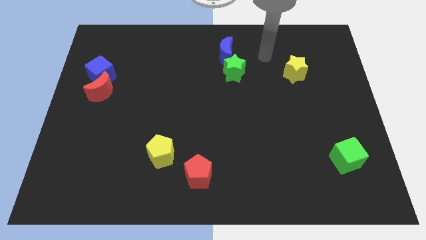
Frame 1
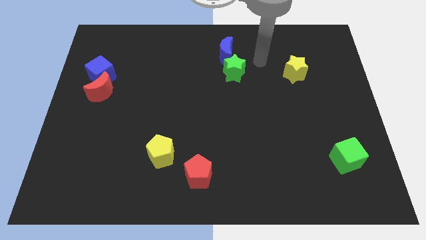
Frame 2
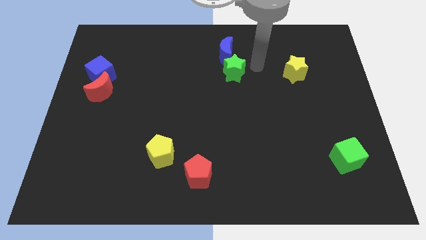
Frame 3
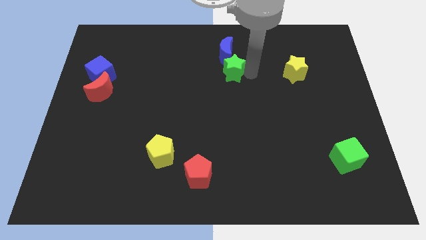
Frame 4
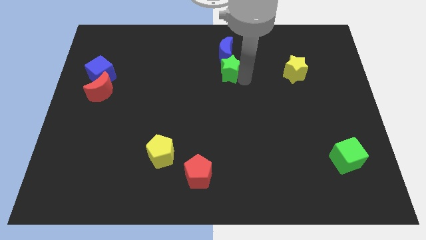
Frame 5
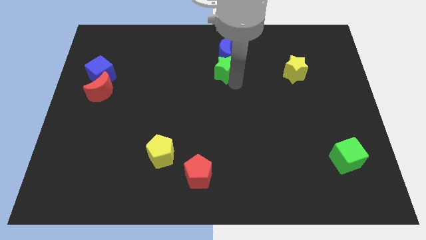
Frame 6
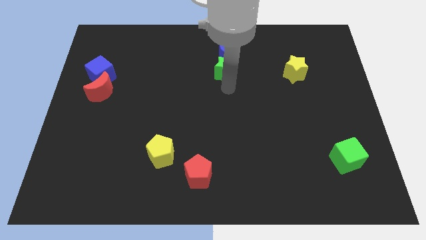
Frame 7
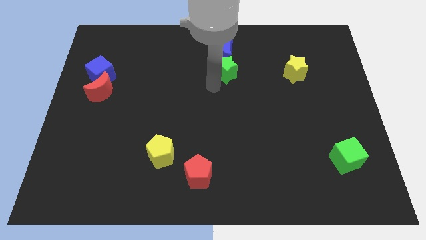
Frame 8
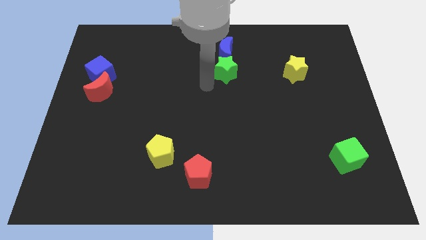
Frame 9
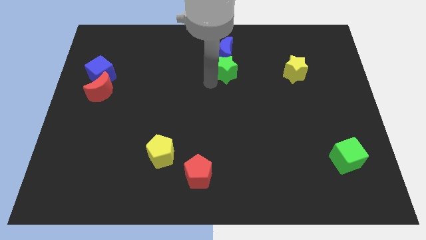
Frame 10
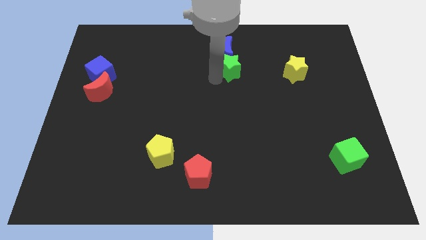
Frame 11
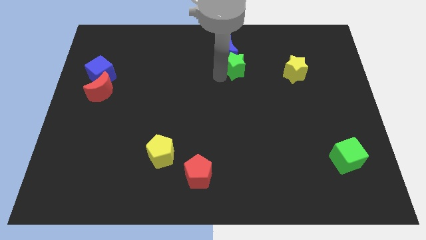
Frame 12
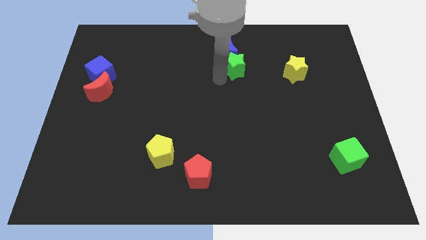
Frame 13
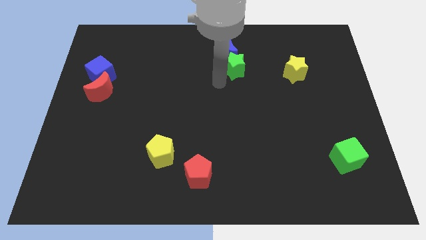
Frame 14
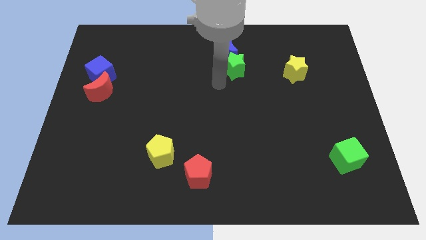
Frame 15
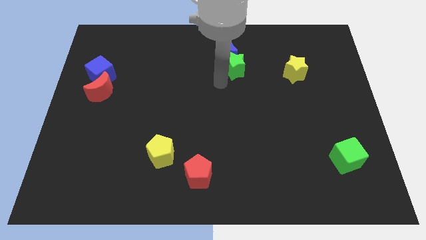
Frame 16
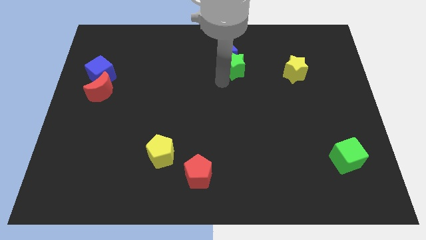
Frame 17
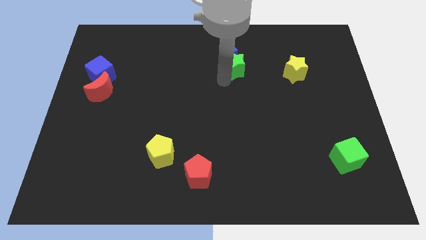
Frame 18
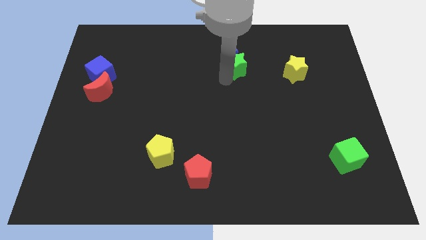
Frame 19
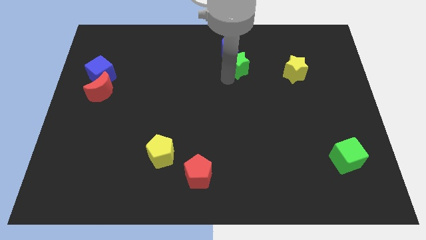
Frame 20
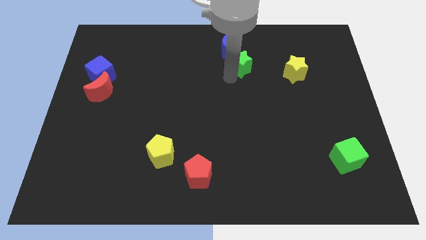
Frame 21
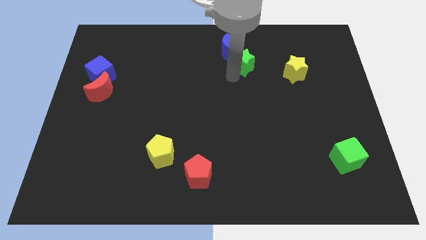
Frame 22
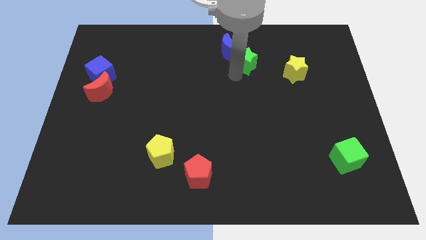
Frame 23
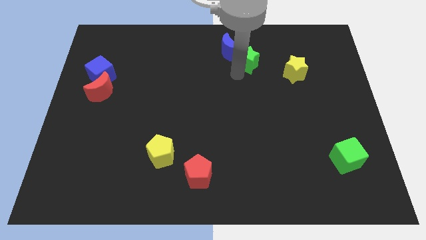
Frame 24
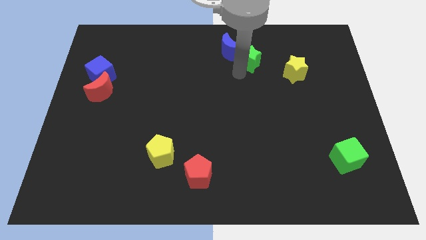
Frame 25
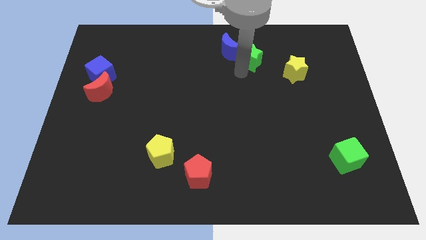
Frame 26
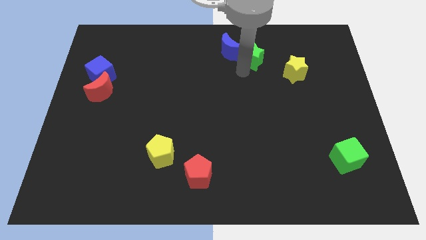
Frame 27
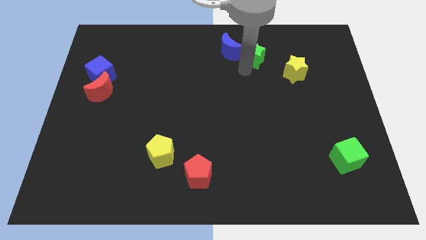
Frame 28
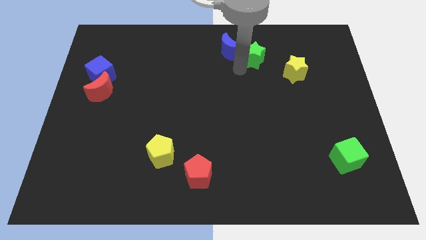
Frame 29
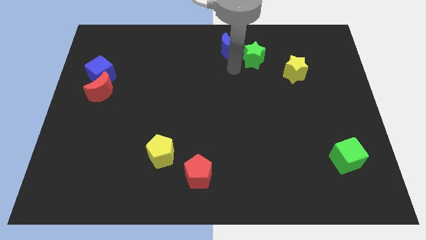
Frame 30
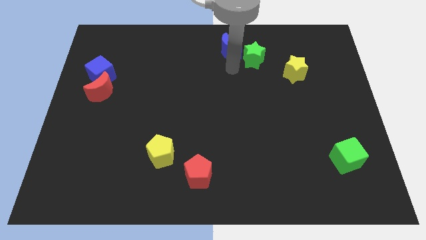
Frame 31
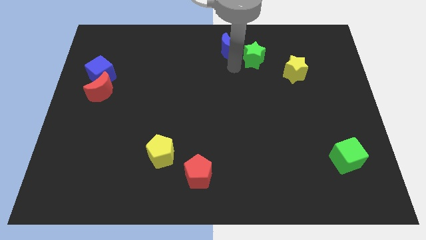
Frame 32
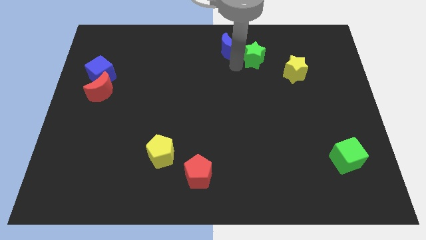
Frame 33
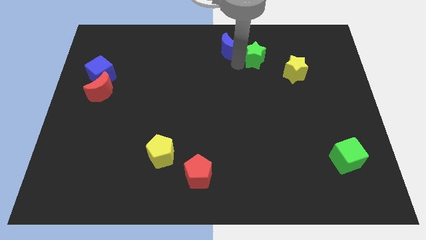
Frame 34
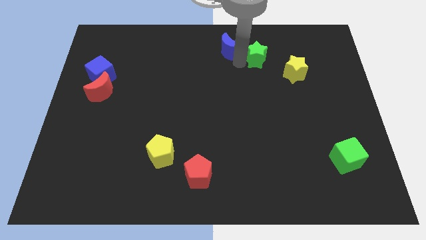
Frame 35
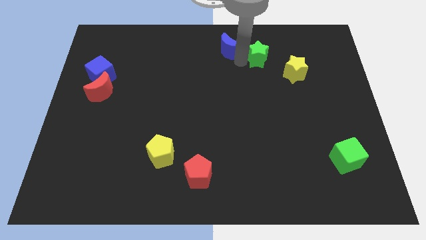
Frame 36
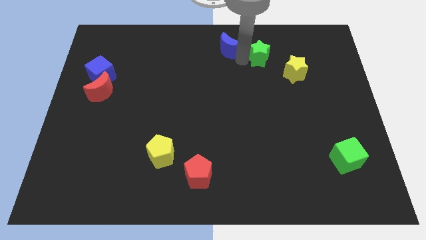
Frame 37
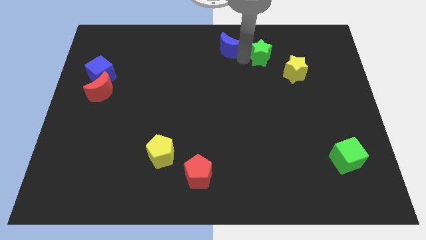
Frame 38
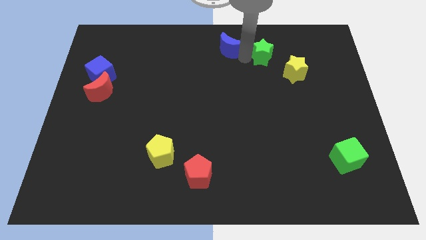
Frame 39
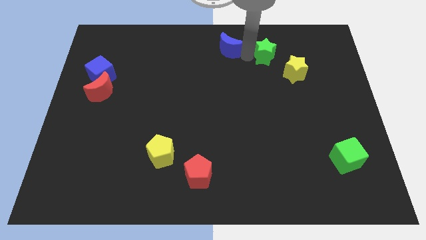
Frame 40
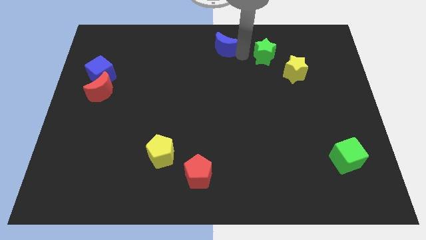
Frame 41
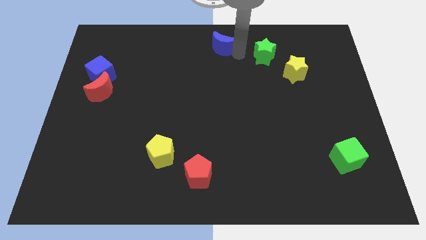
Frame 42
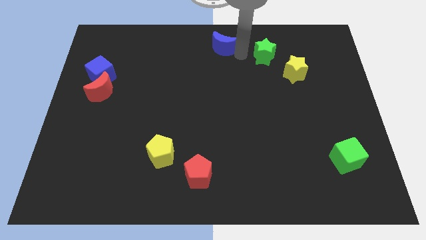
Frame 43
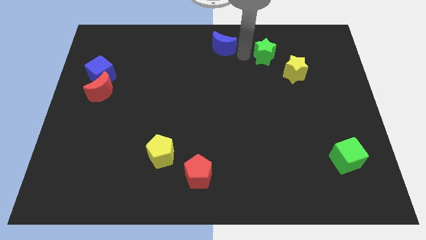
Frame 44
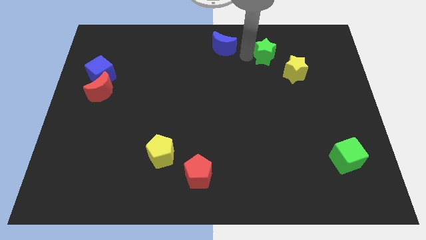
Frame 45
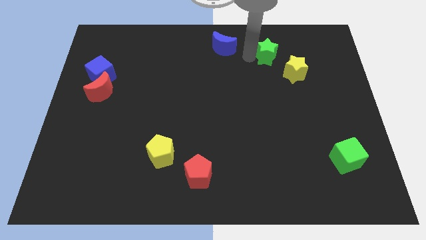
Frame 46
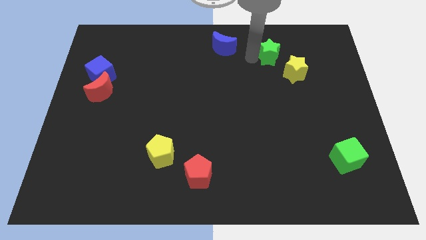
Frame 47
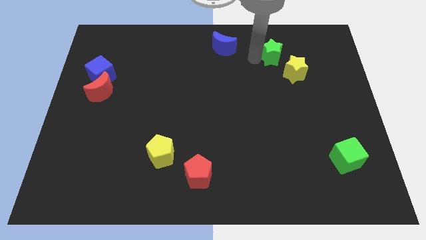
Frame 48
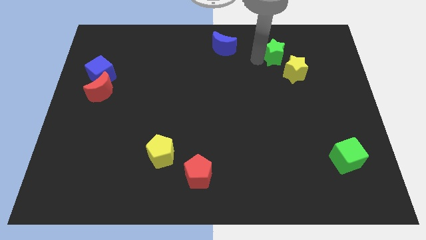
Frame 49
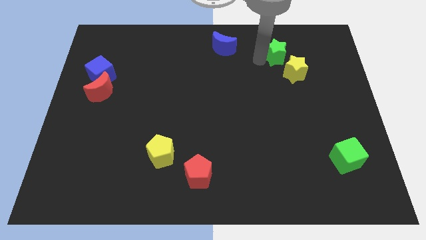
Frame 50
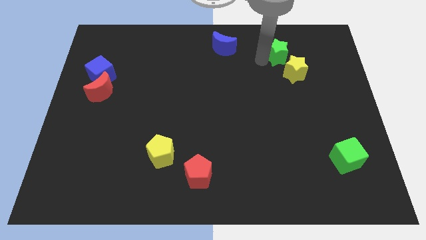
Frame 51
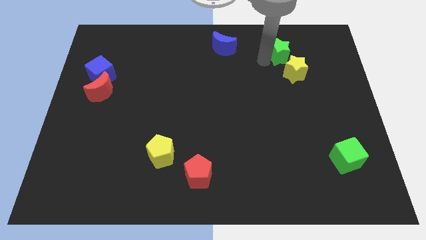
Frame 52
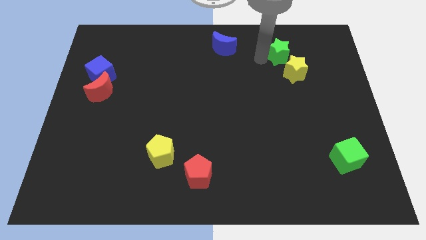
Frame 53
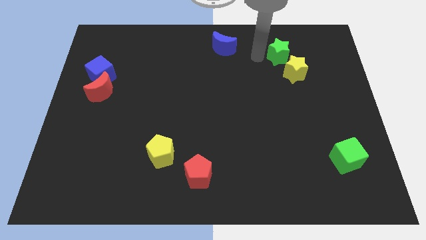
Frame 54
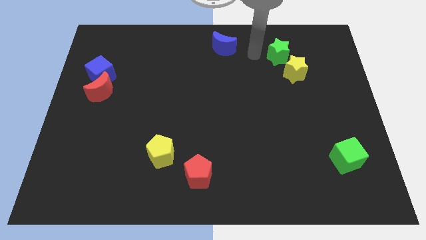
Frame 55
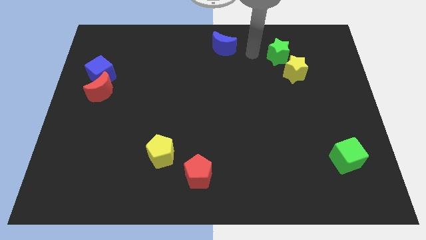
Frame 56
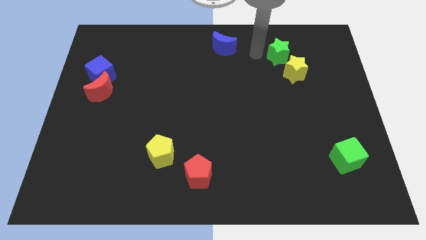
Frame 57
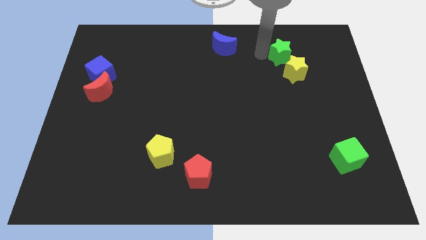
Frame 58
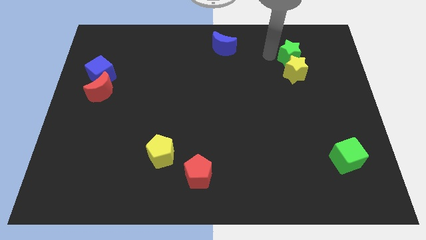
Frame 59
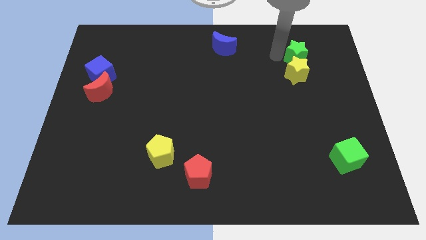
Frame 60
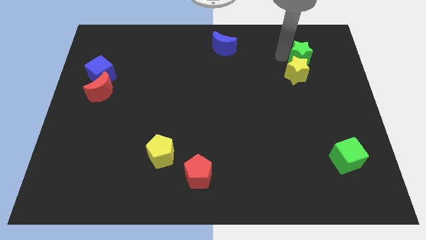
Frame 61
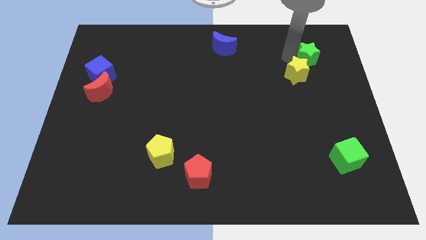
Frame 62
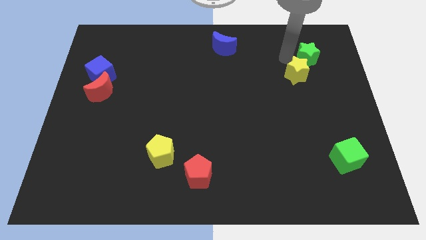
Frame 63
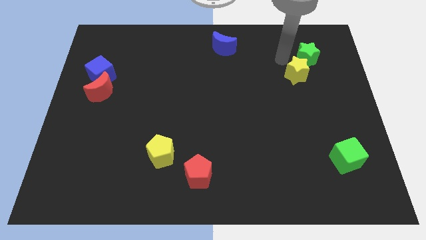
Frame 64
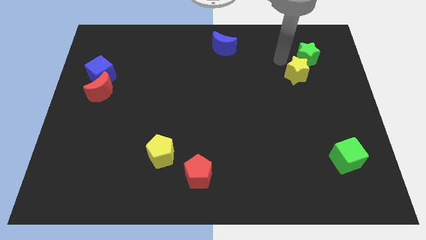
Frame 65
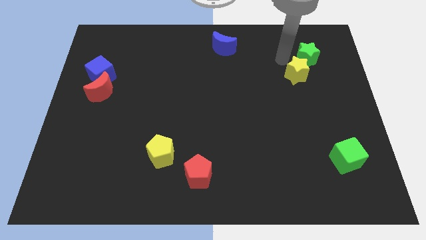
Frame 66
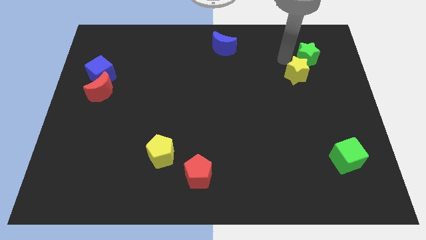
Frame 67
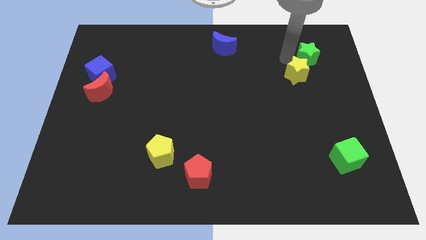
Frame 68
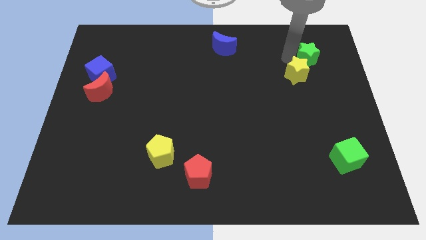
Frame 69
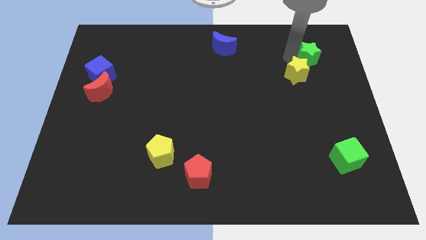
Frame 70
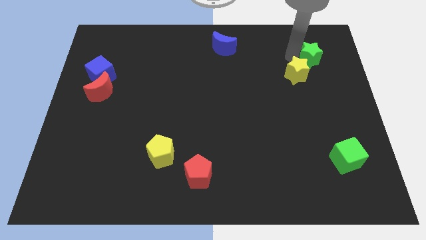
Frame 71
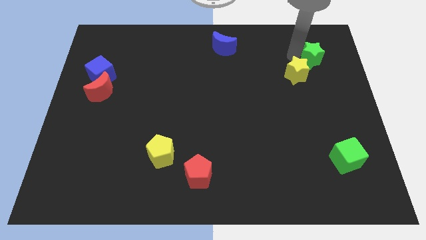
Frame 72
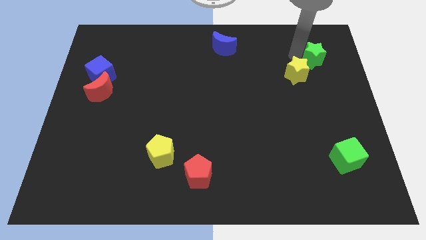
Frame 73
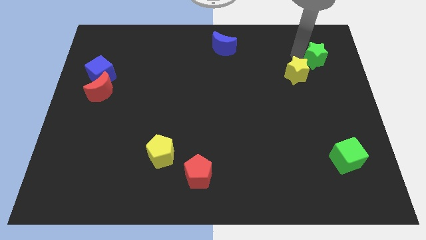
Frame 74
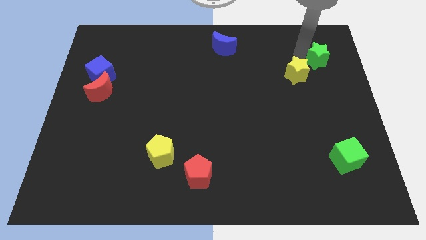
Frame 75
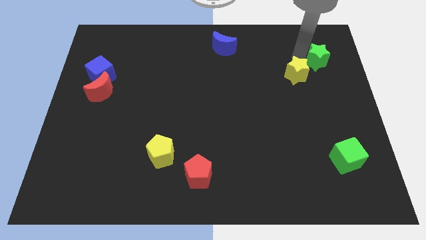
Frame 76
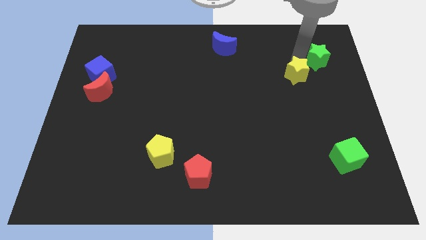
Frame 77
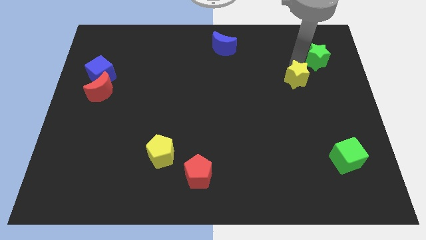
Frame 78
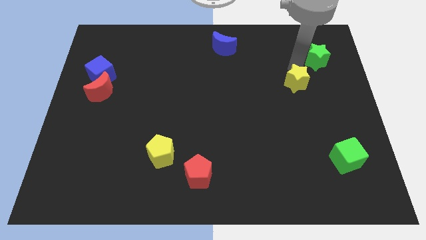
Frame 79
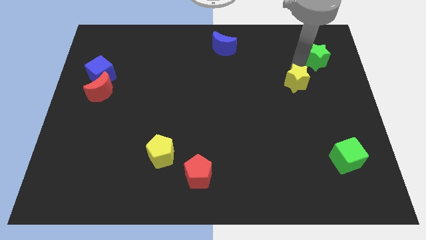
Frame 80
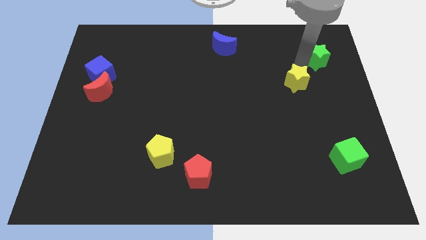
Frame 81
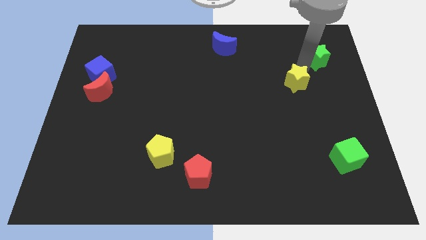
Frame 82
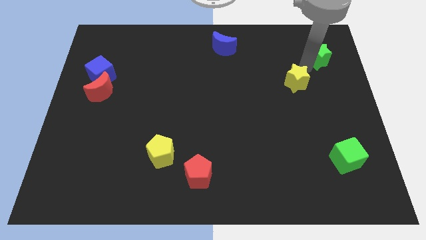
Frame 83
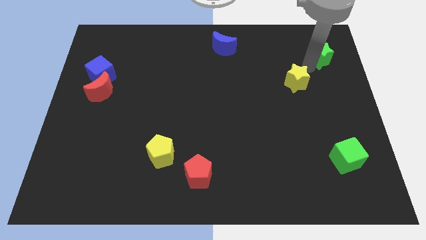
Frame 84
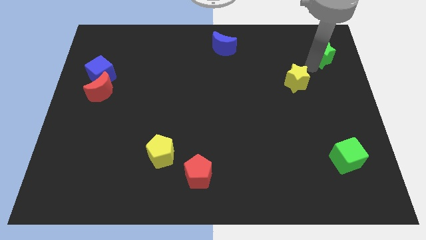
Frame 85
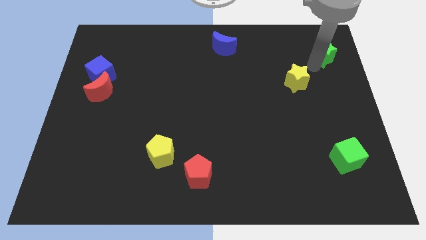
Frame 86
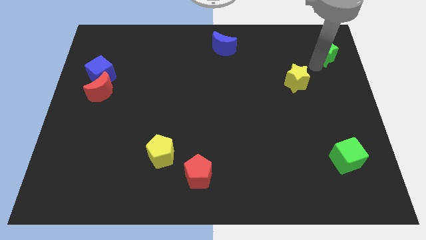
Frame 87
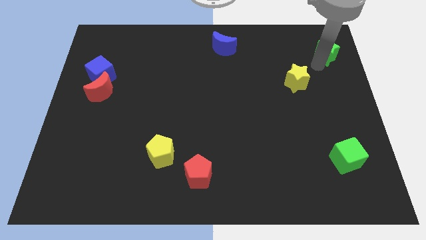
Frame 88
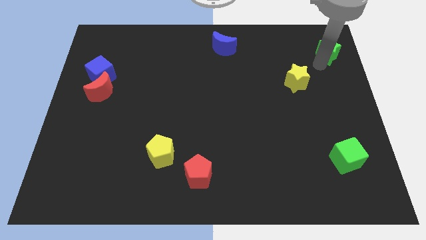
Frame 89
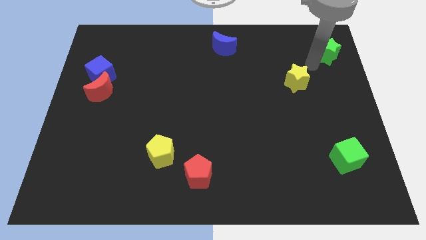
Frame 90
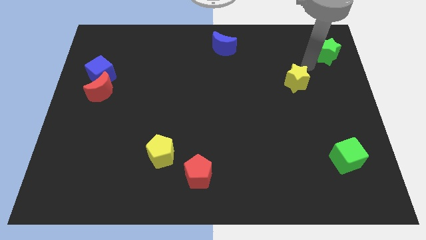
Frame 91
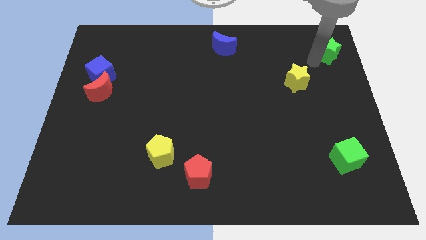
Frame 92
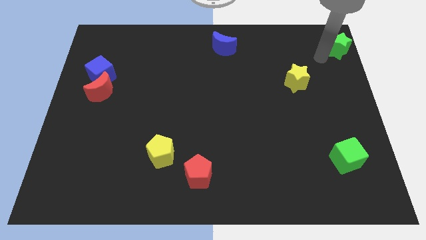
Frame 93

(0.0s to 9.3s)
put the green star to the upper right corner
